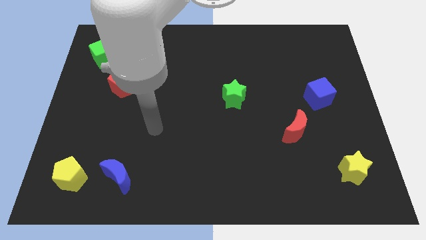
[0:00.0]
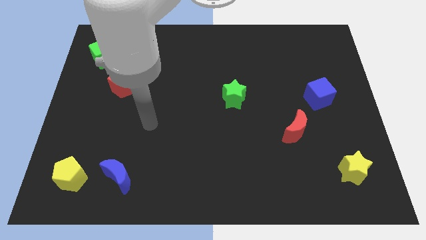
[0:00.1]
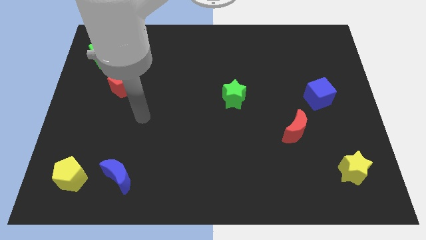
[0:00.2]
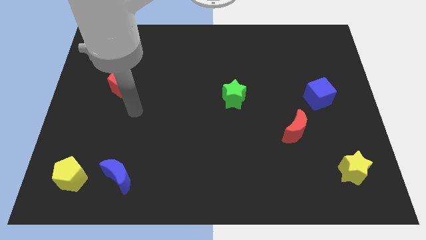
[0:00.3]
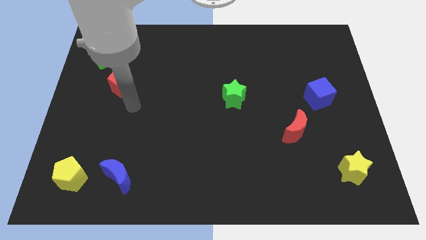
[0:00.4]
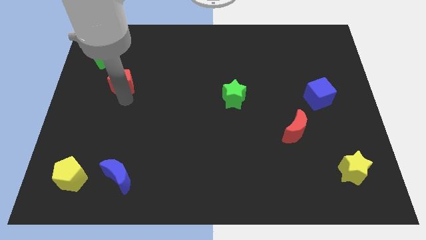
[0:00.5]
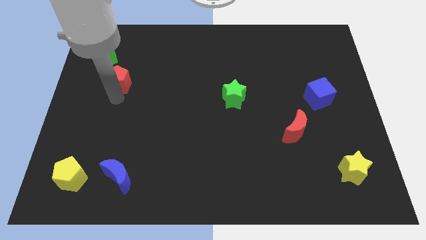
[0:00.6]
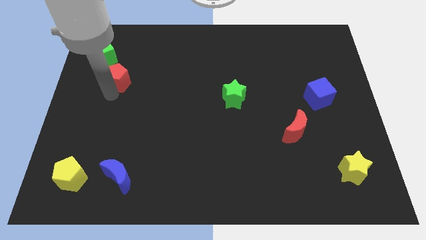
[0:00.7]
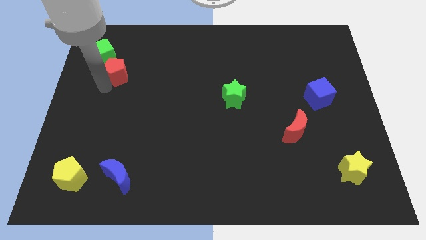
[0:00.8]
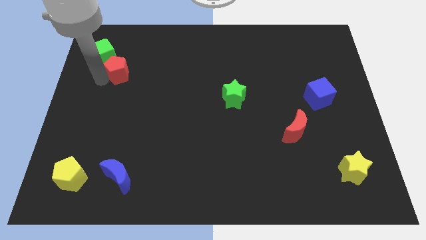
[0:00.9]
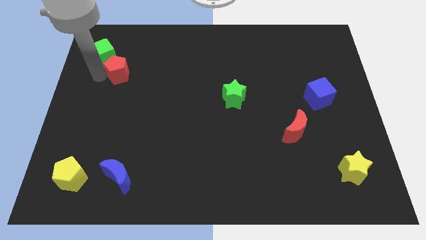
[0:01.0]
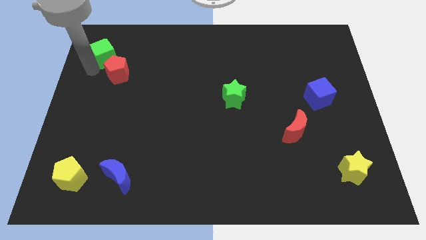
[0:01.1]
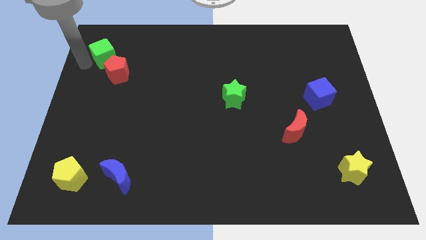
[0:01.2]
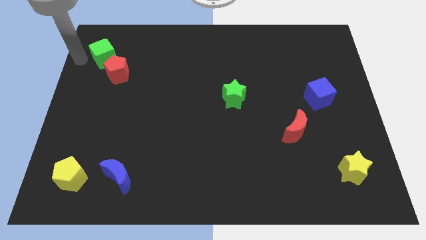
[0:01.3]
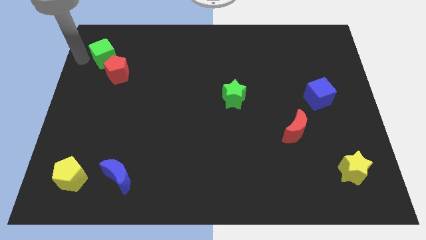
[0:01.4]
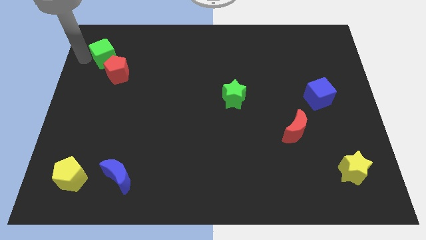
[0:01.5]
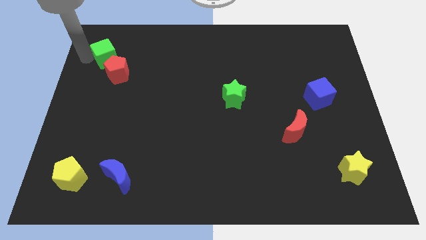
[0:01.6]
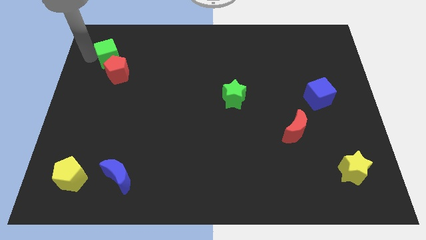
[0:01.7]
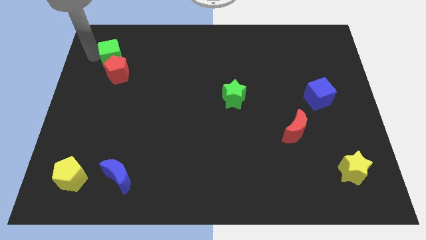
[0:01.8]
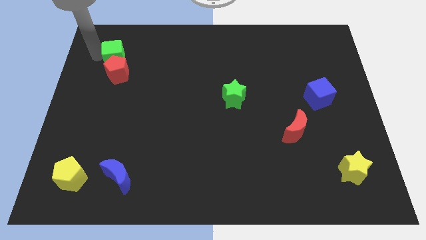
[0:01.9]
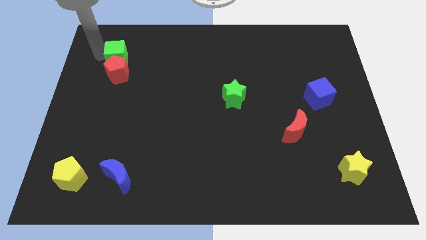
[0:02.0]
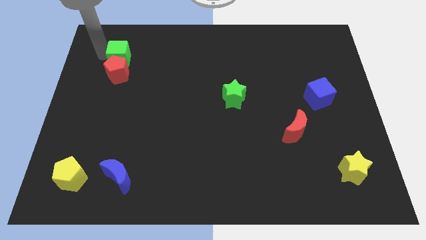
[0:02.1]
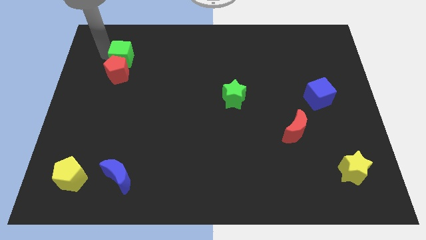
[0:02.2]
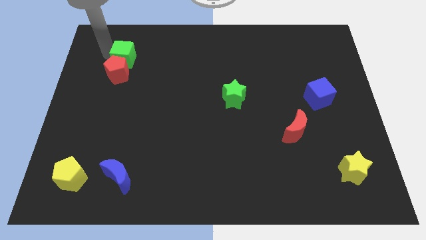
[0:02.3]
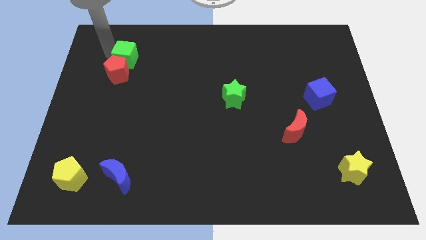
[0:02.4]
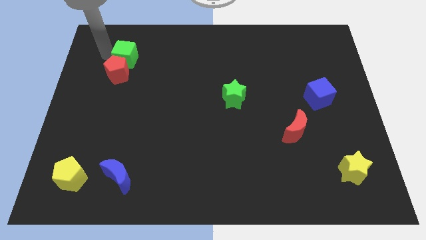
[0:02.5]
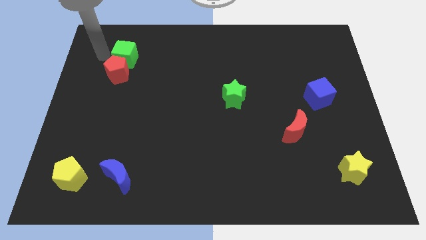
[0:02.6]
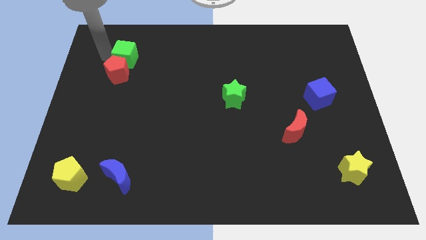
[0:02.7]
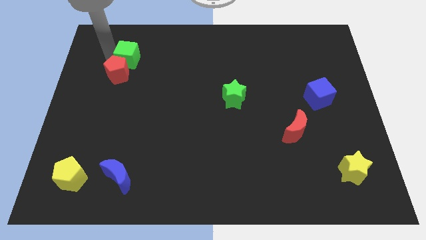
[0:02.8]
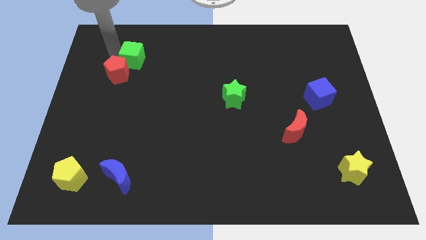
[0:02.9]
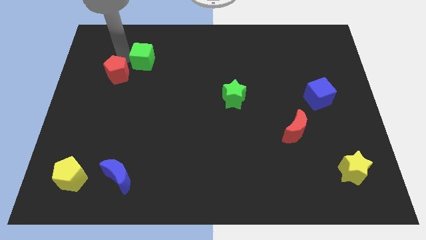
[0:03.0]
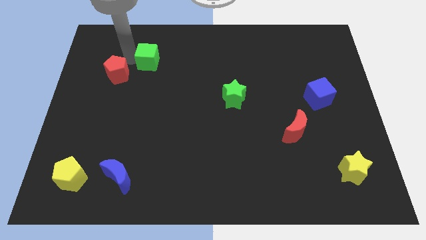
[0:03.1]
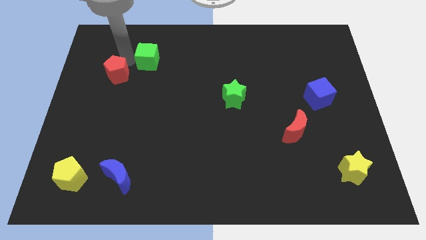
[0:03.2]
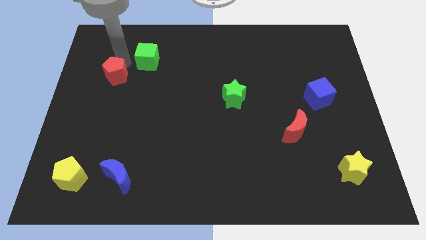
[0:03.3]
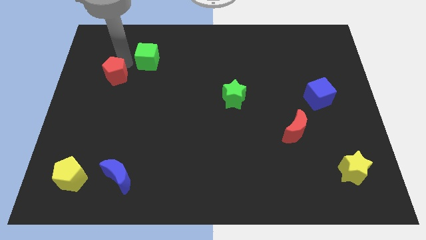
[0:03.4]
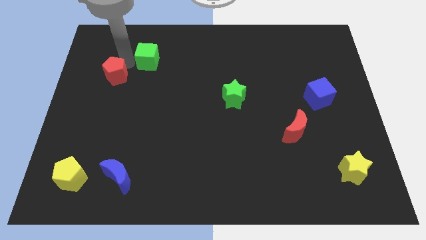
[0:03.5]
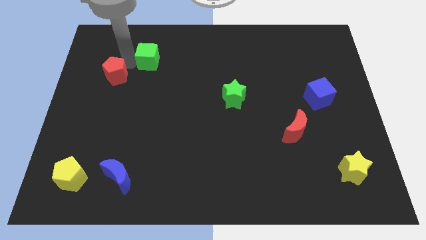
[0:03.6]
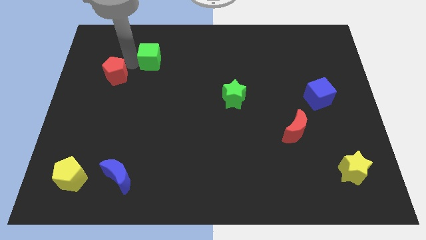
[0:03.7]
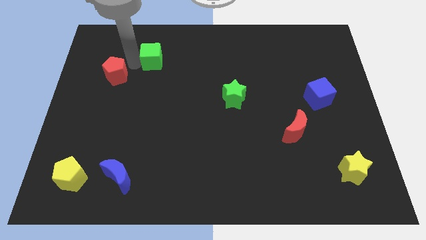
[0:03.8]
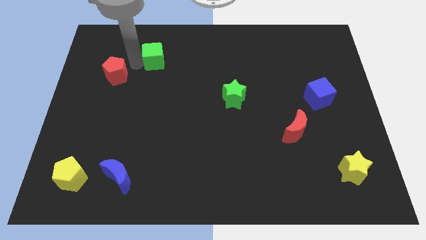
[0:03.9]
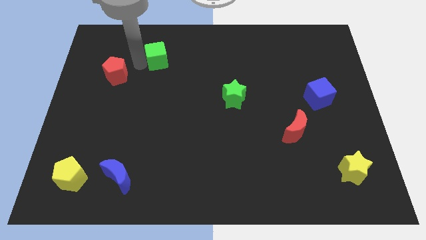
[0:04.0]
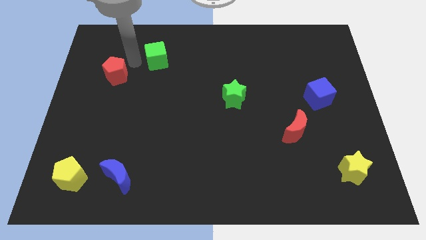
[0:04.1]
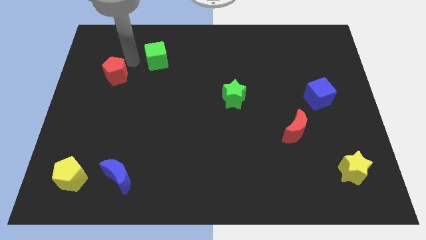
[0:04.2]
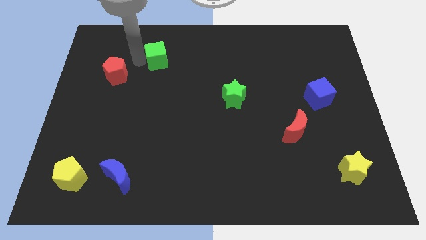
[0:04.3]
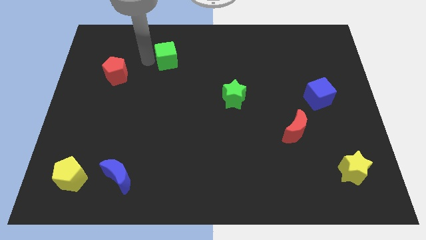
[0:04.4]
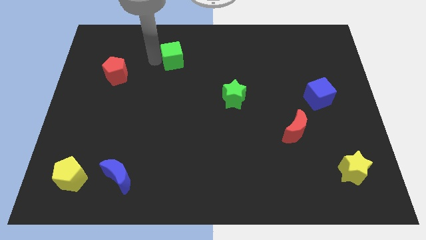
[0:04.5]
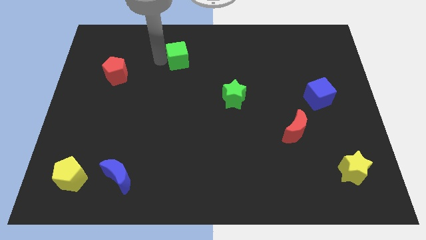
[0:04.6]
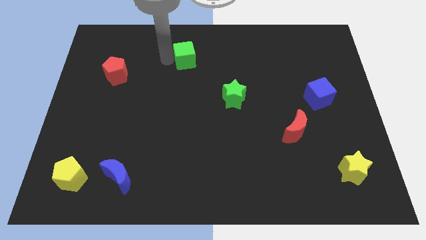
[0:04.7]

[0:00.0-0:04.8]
move the green cube to the right

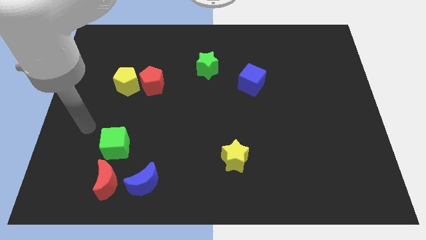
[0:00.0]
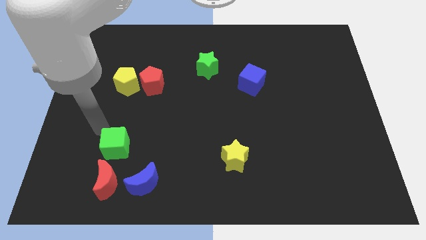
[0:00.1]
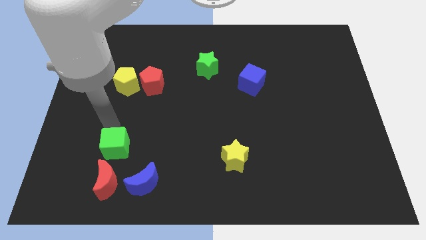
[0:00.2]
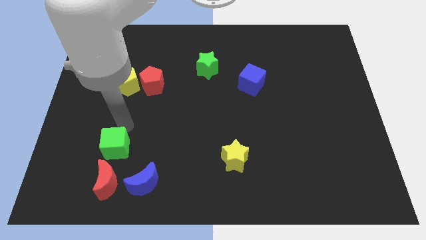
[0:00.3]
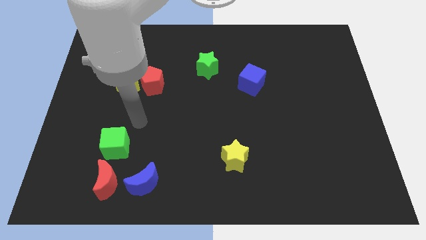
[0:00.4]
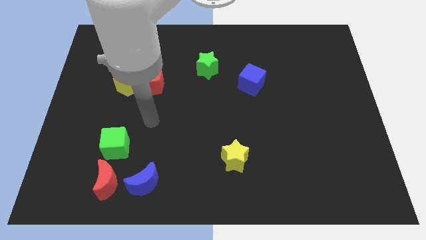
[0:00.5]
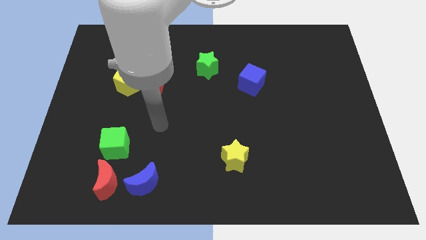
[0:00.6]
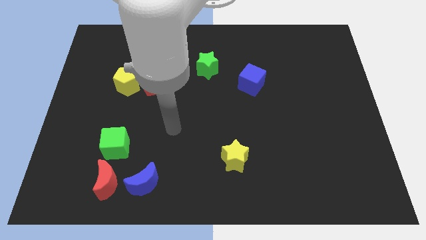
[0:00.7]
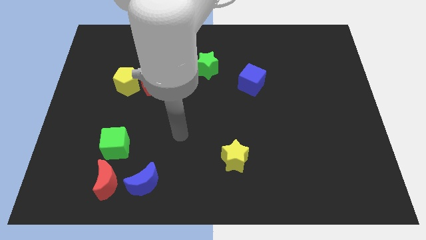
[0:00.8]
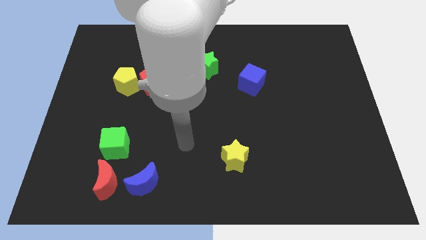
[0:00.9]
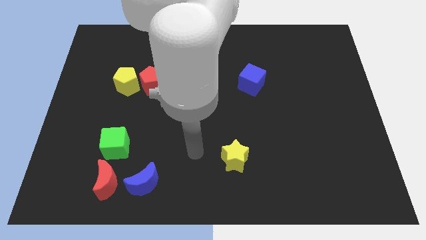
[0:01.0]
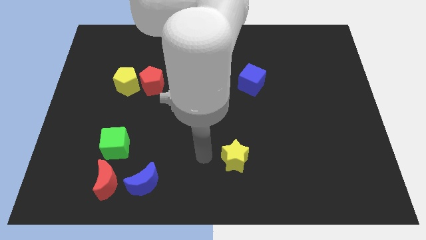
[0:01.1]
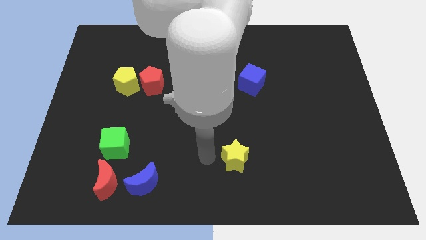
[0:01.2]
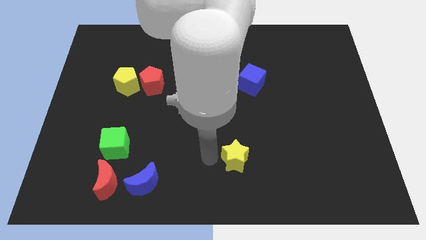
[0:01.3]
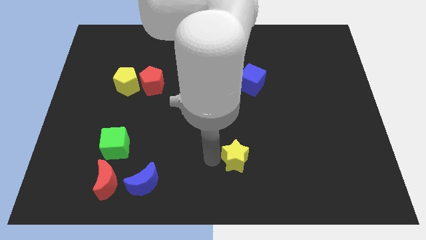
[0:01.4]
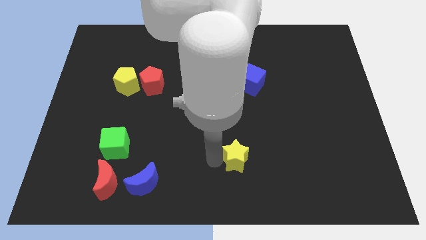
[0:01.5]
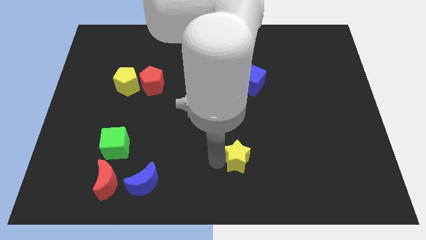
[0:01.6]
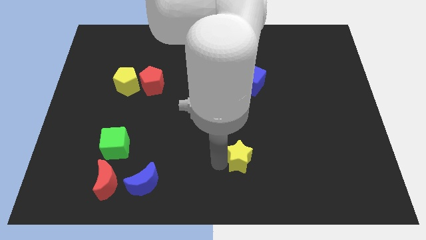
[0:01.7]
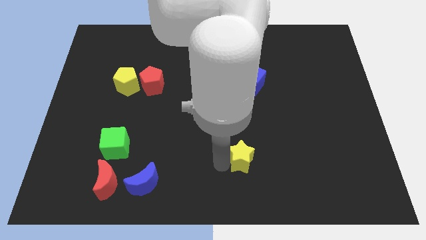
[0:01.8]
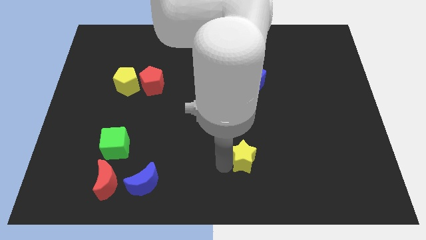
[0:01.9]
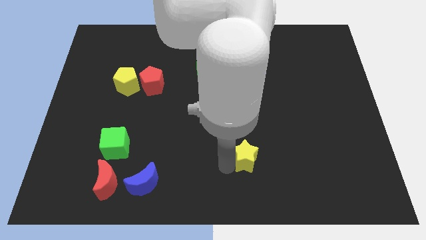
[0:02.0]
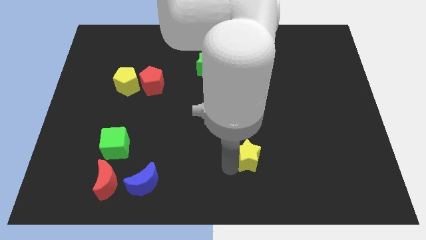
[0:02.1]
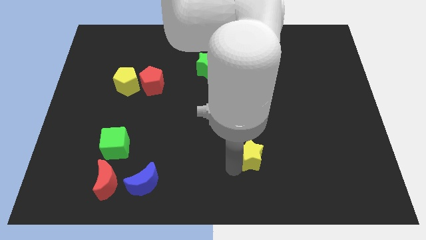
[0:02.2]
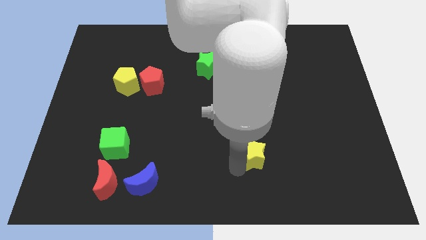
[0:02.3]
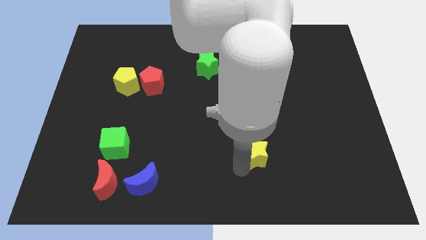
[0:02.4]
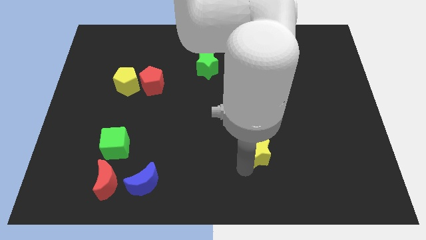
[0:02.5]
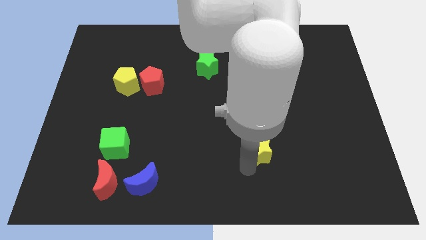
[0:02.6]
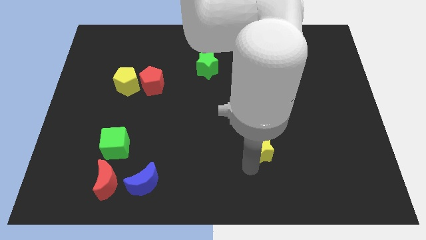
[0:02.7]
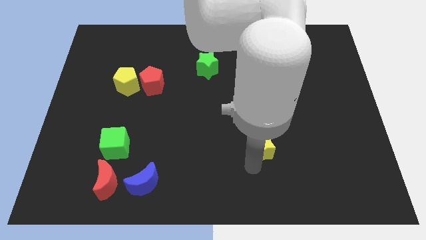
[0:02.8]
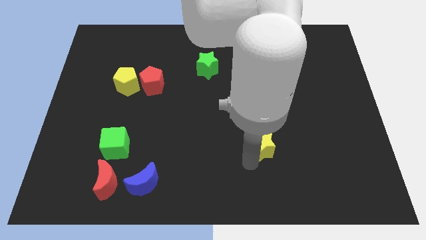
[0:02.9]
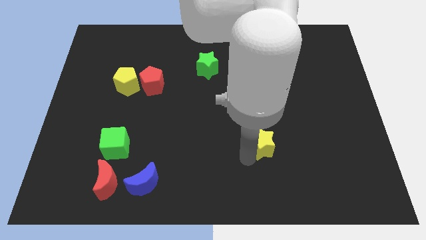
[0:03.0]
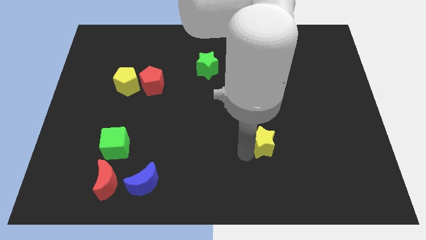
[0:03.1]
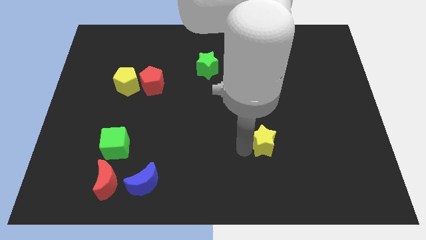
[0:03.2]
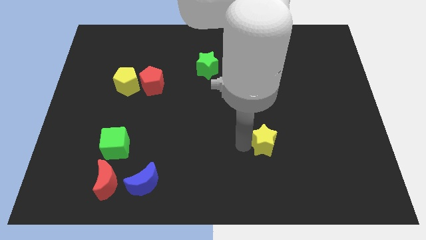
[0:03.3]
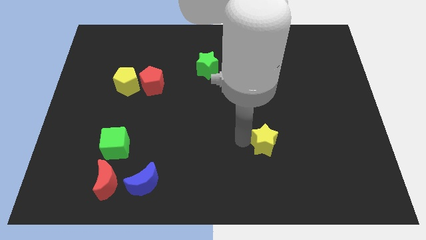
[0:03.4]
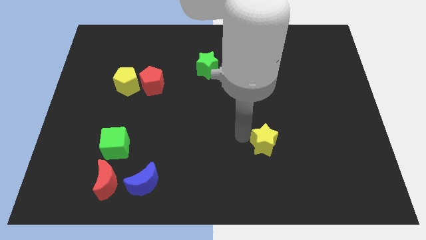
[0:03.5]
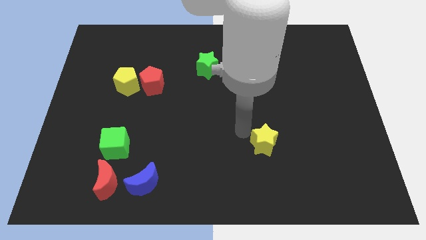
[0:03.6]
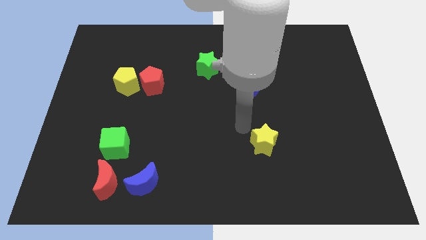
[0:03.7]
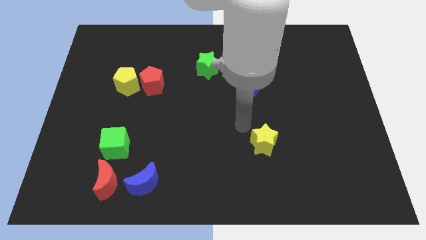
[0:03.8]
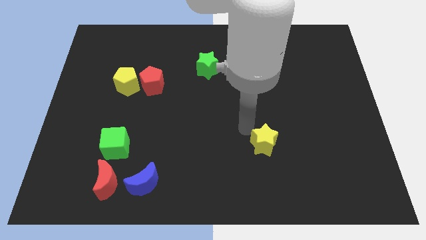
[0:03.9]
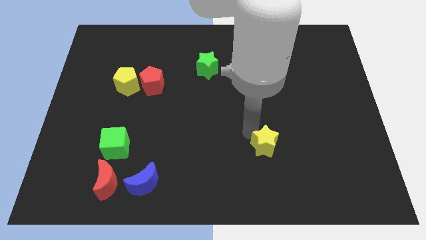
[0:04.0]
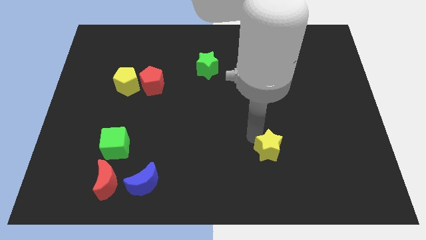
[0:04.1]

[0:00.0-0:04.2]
slide the yellow star right a little bit
